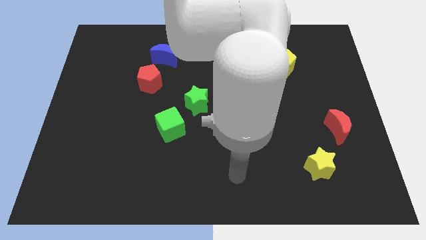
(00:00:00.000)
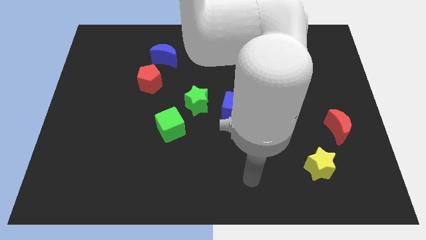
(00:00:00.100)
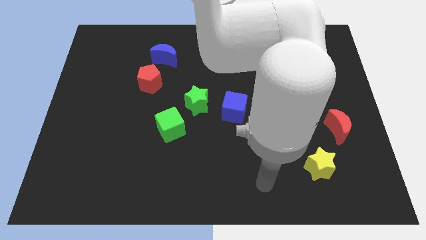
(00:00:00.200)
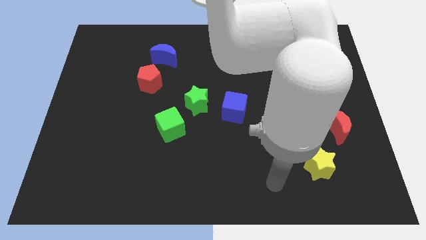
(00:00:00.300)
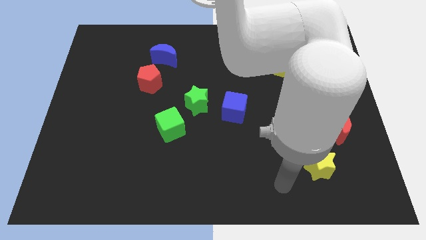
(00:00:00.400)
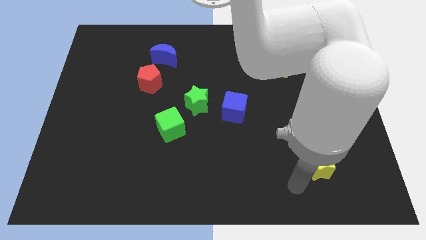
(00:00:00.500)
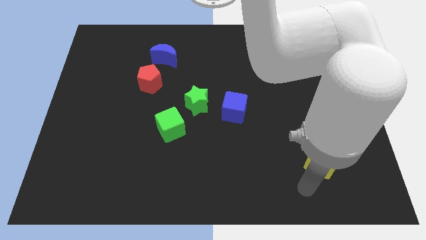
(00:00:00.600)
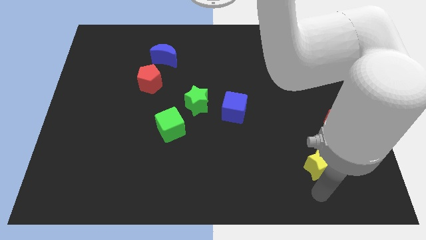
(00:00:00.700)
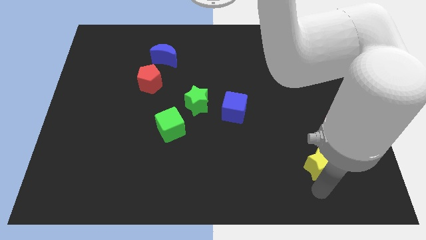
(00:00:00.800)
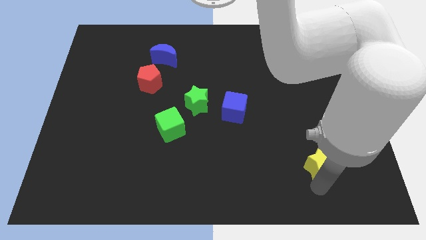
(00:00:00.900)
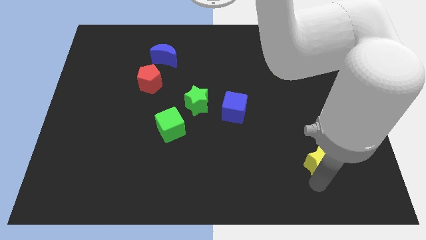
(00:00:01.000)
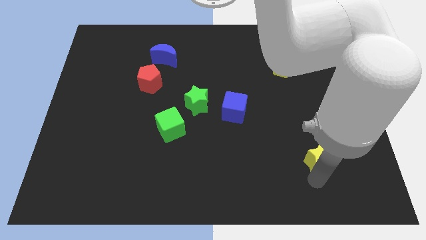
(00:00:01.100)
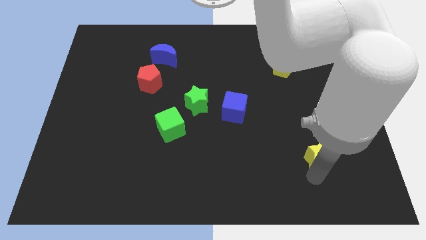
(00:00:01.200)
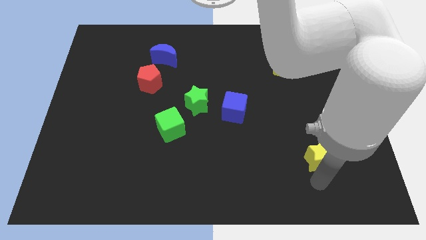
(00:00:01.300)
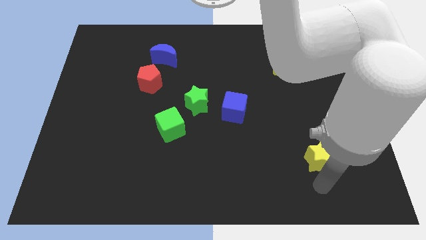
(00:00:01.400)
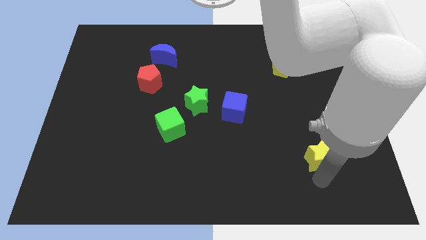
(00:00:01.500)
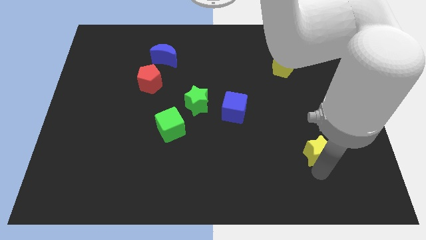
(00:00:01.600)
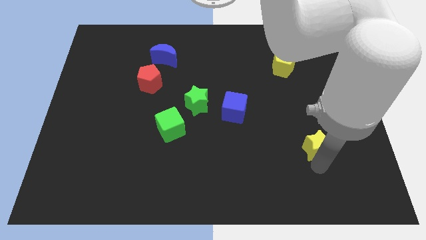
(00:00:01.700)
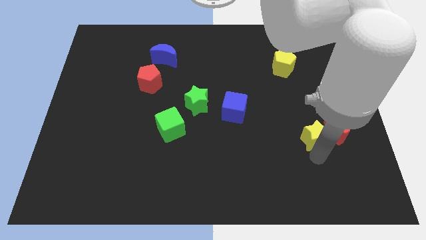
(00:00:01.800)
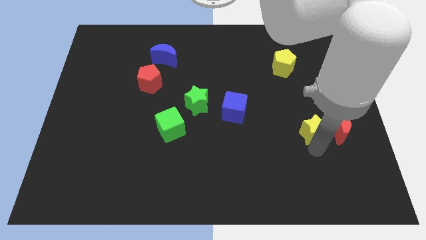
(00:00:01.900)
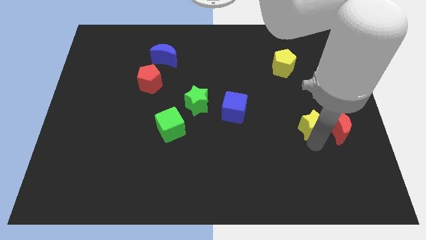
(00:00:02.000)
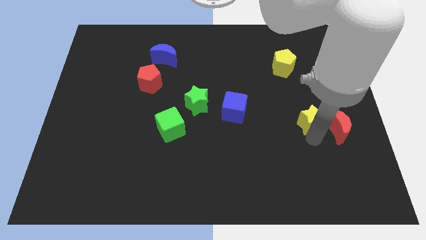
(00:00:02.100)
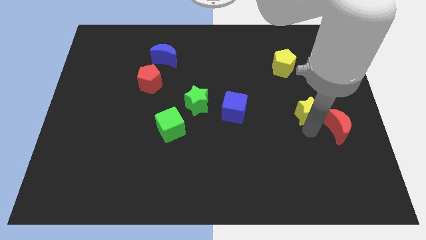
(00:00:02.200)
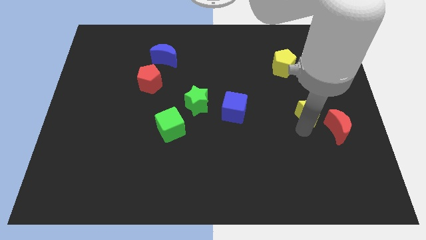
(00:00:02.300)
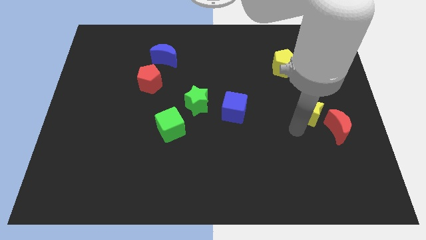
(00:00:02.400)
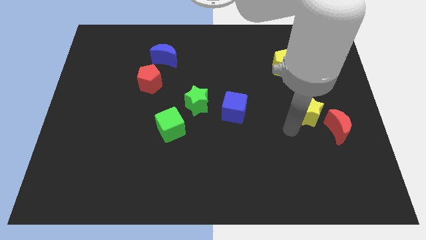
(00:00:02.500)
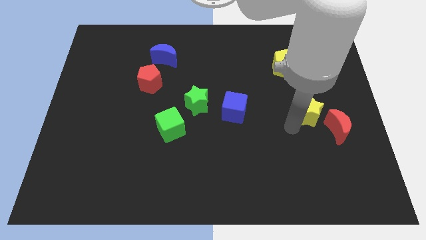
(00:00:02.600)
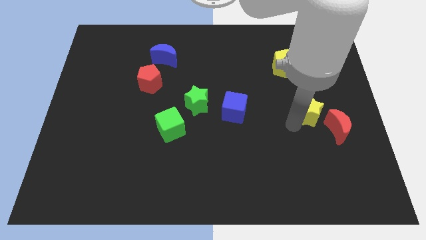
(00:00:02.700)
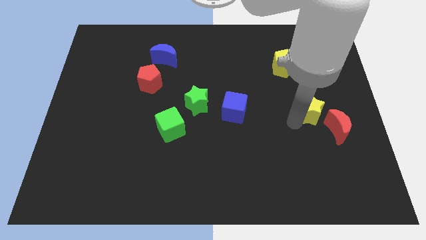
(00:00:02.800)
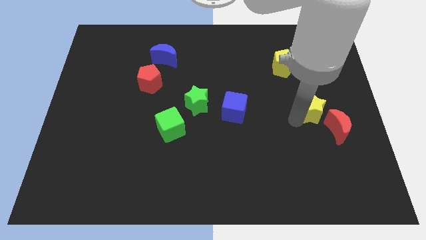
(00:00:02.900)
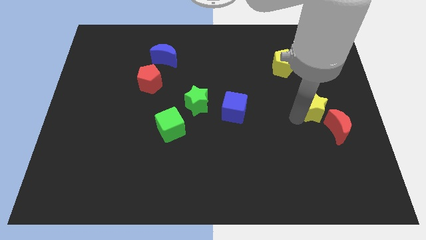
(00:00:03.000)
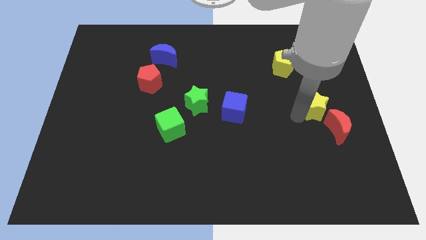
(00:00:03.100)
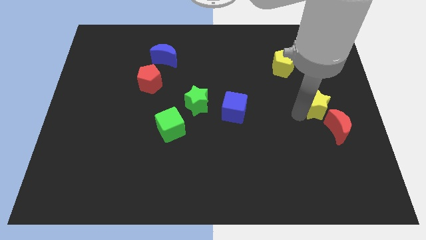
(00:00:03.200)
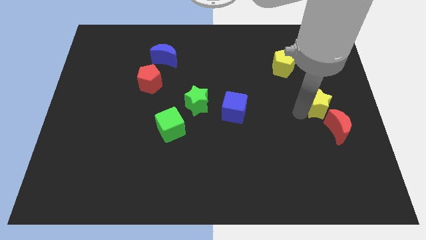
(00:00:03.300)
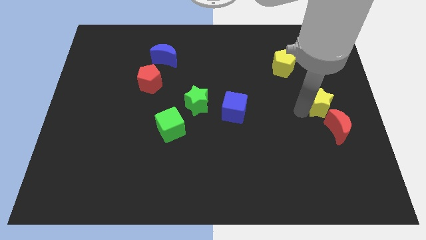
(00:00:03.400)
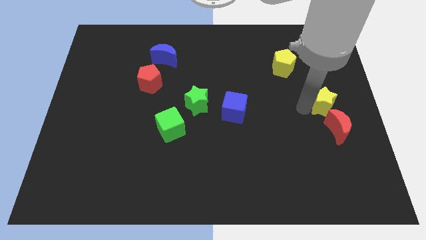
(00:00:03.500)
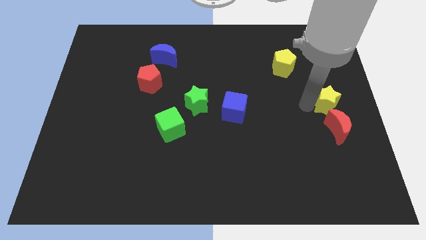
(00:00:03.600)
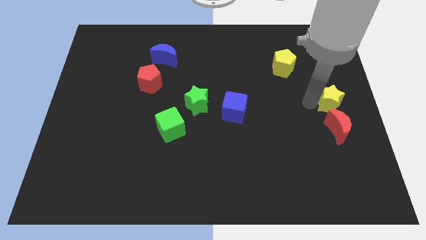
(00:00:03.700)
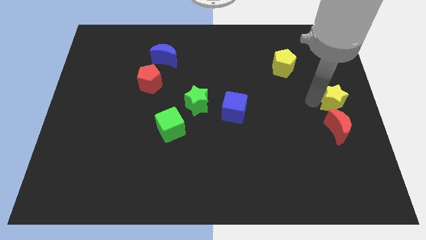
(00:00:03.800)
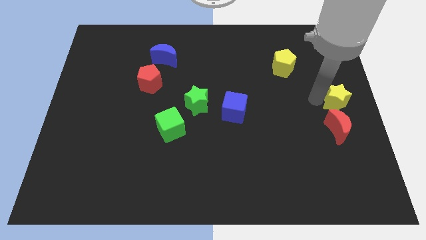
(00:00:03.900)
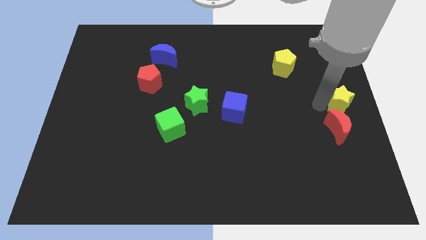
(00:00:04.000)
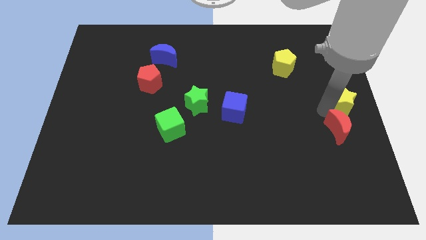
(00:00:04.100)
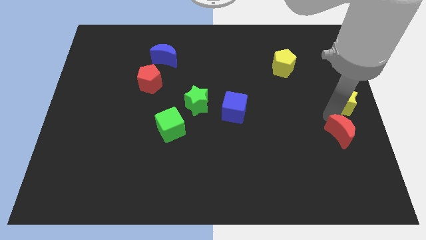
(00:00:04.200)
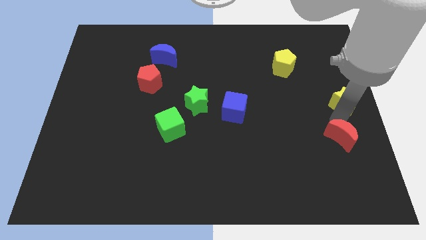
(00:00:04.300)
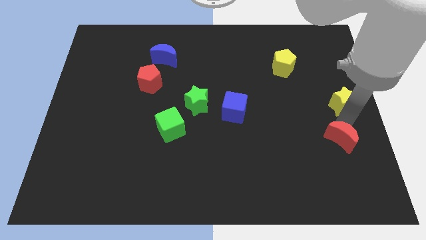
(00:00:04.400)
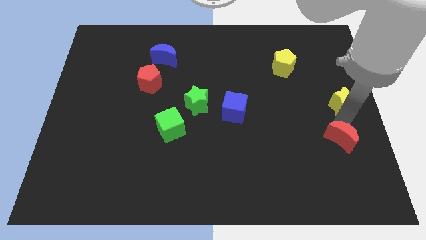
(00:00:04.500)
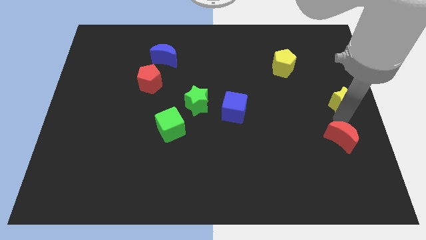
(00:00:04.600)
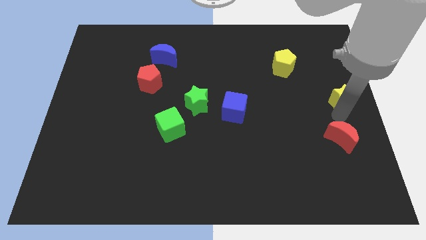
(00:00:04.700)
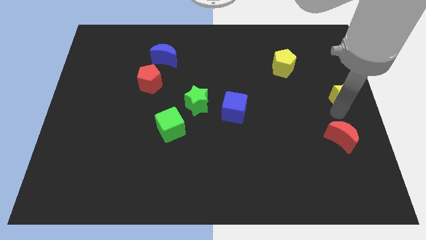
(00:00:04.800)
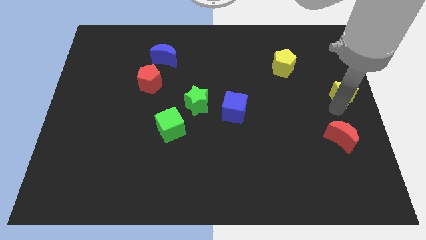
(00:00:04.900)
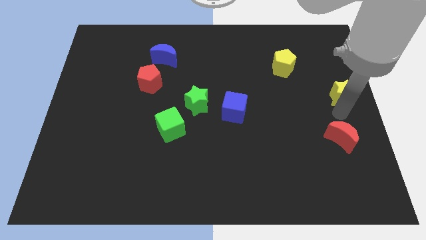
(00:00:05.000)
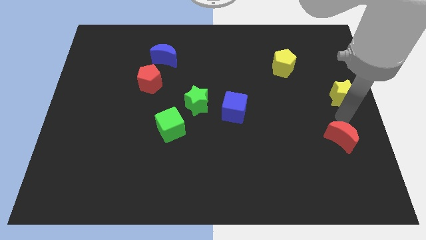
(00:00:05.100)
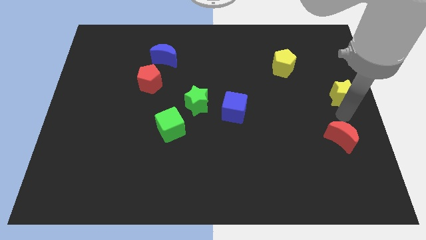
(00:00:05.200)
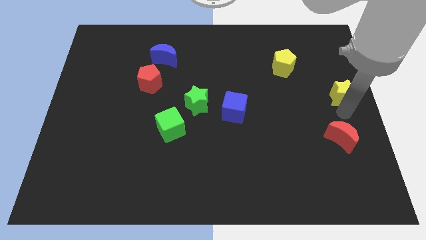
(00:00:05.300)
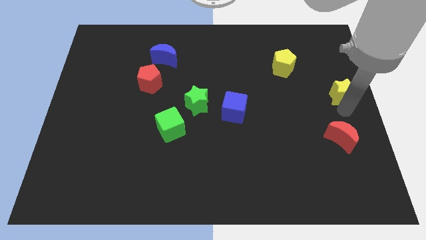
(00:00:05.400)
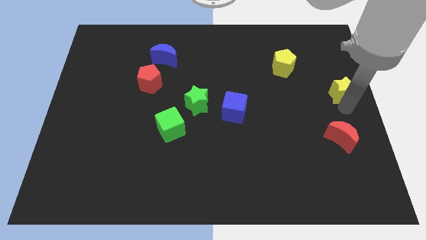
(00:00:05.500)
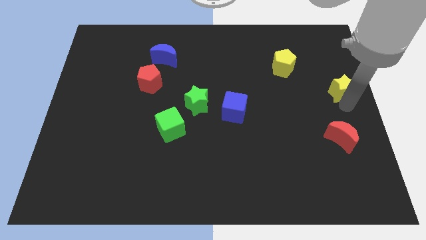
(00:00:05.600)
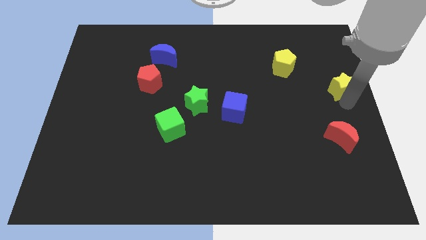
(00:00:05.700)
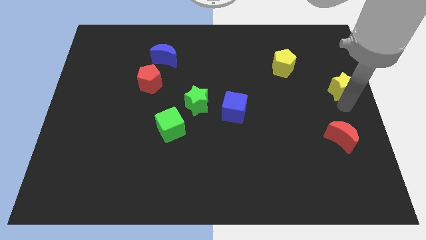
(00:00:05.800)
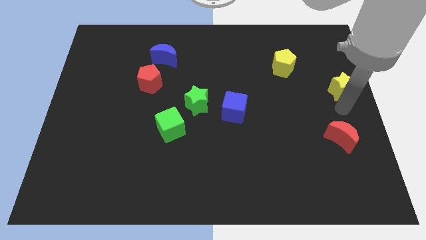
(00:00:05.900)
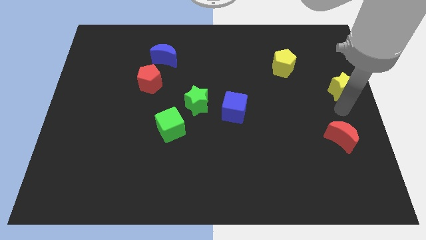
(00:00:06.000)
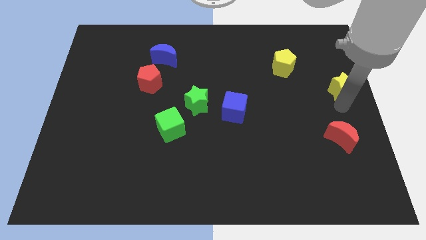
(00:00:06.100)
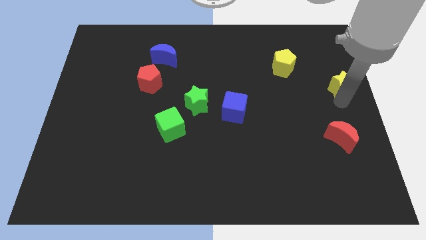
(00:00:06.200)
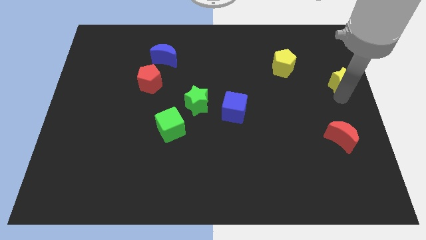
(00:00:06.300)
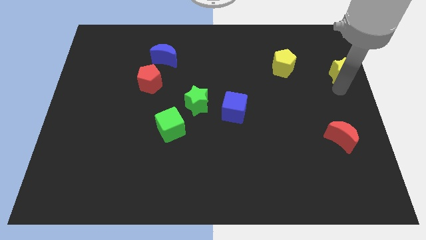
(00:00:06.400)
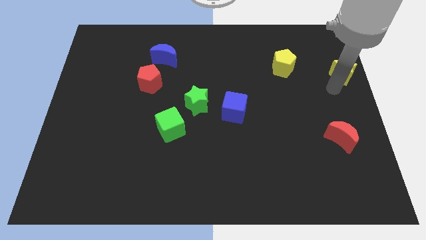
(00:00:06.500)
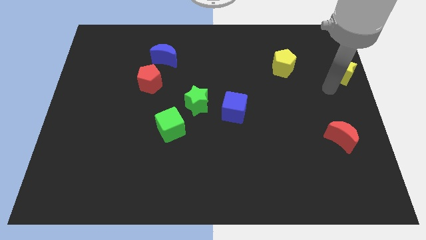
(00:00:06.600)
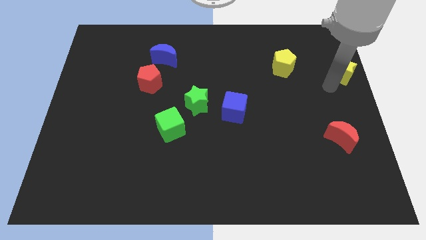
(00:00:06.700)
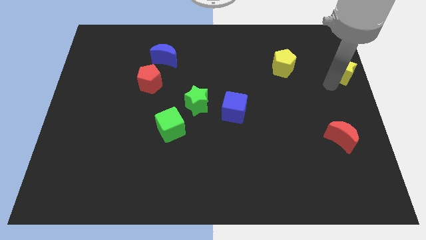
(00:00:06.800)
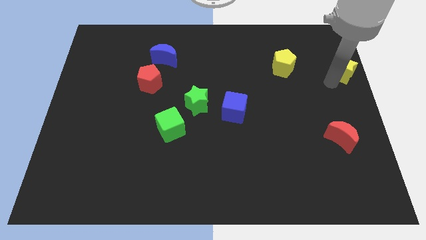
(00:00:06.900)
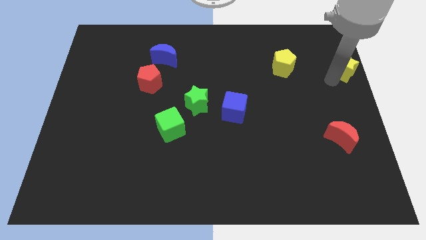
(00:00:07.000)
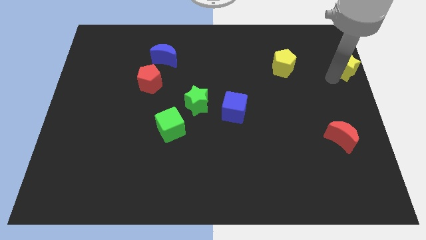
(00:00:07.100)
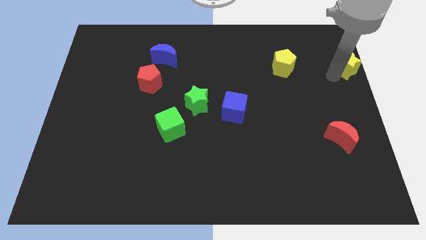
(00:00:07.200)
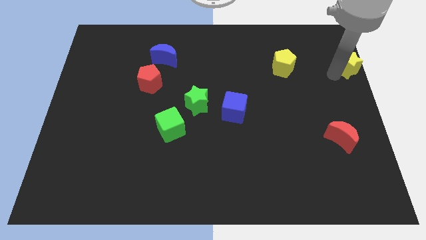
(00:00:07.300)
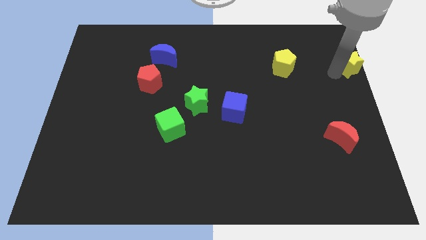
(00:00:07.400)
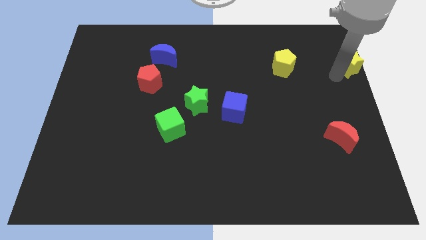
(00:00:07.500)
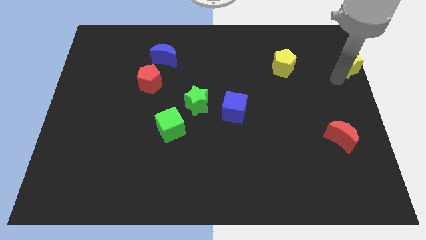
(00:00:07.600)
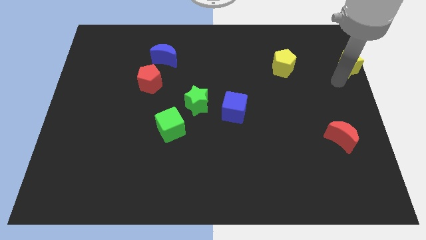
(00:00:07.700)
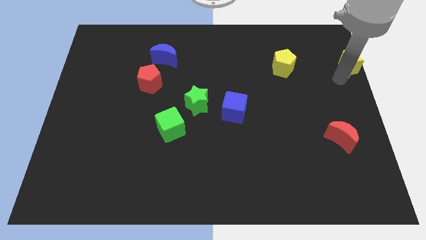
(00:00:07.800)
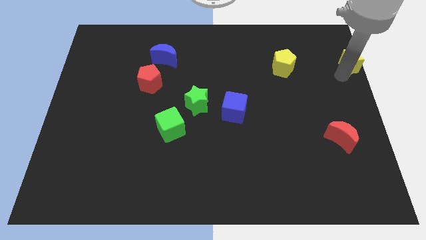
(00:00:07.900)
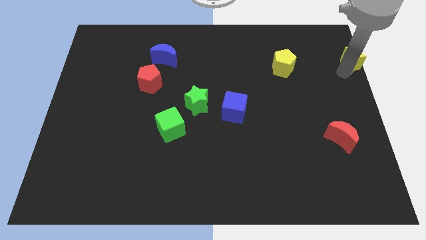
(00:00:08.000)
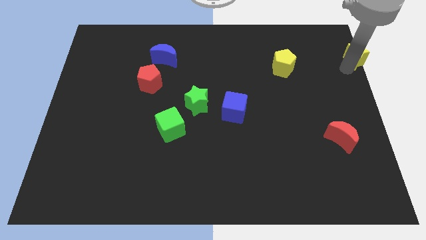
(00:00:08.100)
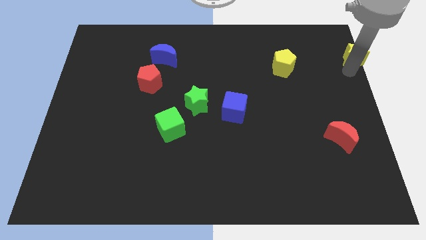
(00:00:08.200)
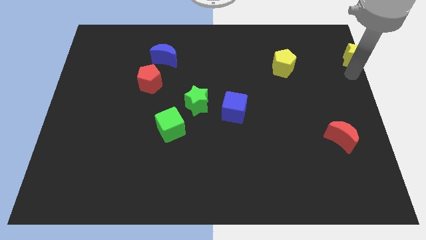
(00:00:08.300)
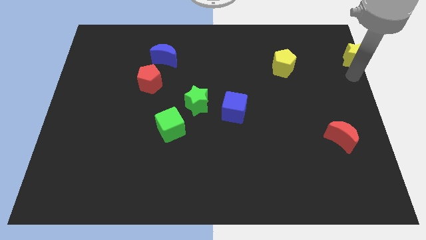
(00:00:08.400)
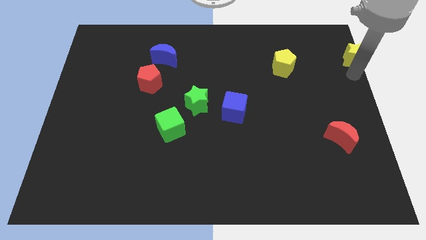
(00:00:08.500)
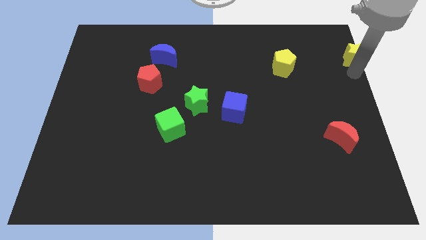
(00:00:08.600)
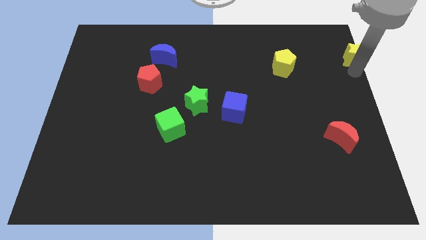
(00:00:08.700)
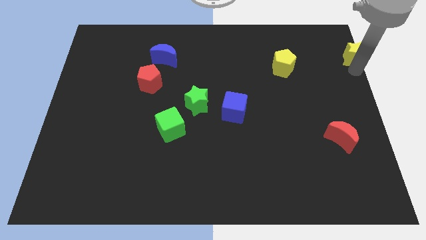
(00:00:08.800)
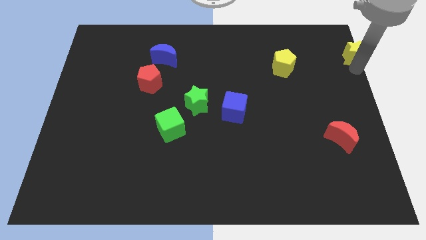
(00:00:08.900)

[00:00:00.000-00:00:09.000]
push the yellow star to the top right
